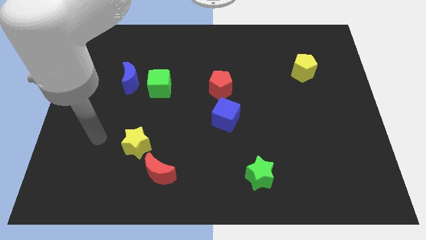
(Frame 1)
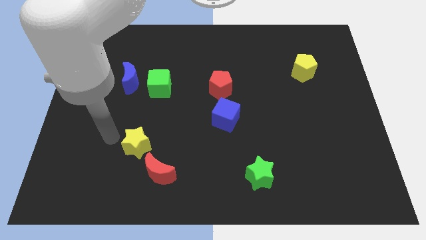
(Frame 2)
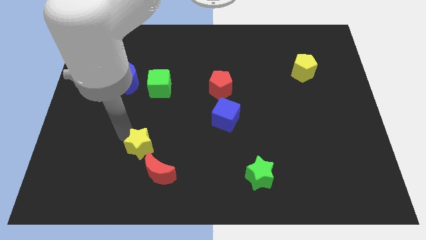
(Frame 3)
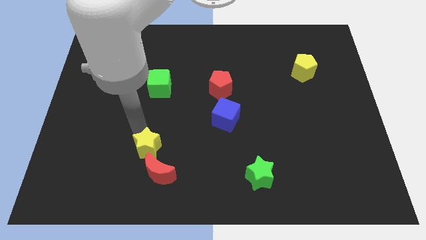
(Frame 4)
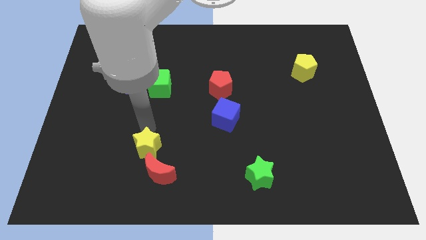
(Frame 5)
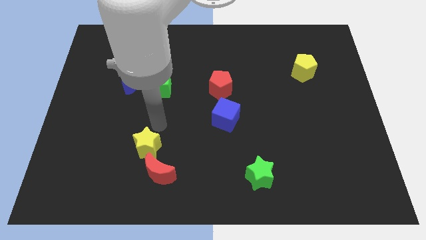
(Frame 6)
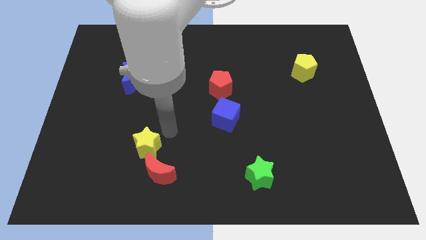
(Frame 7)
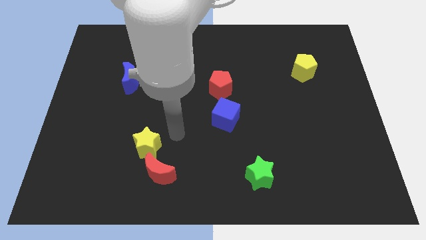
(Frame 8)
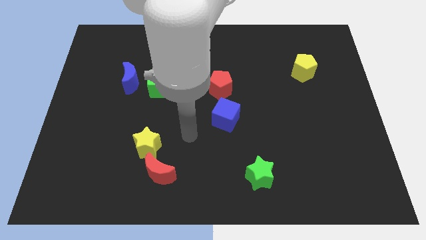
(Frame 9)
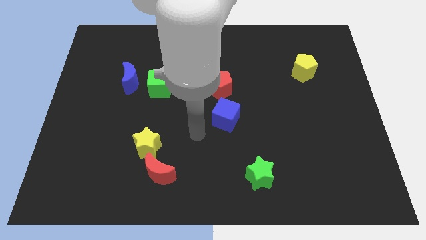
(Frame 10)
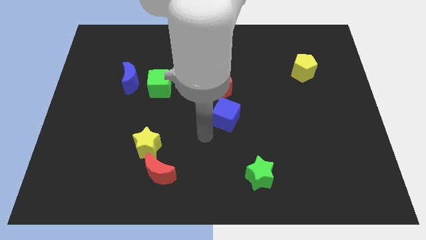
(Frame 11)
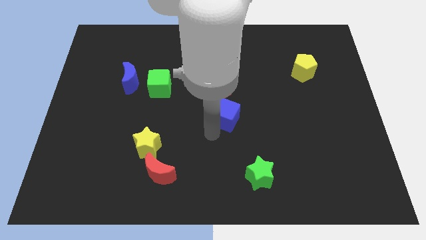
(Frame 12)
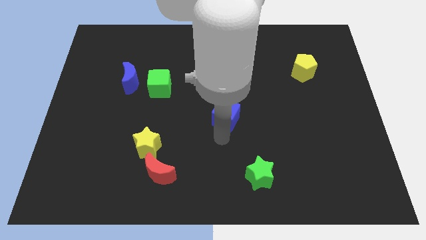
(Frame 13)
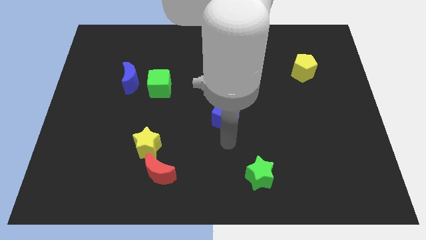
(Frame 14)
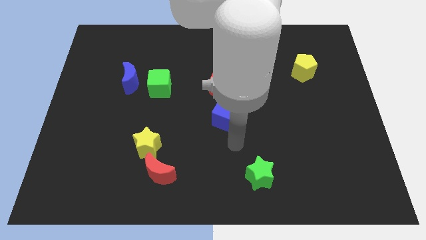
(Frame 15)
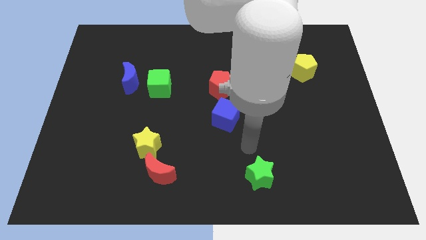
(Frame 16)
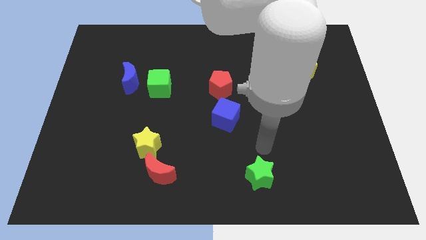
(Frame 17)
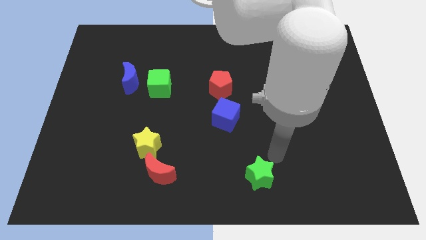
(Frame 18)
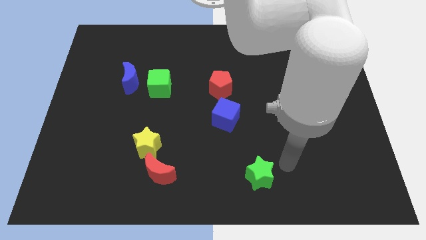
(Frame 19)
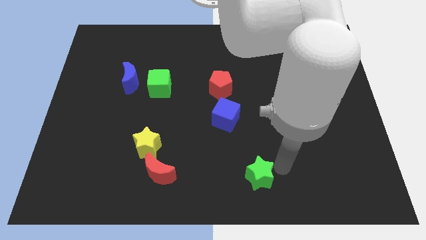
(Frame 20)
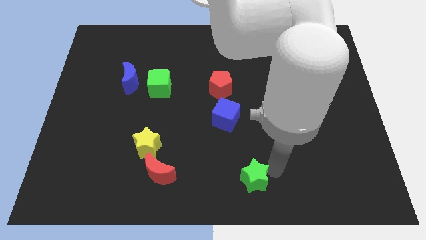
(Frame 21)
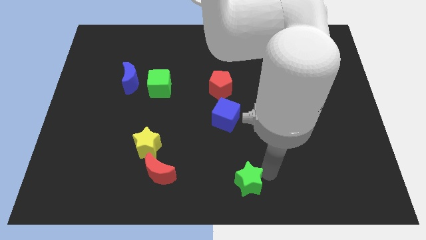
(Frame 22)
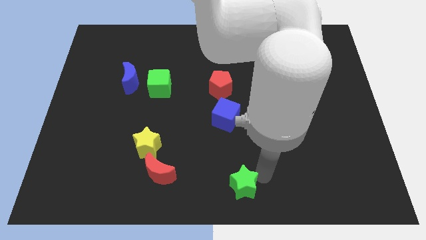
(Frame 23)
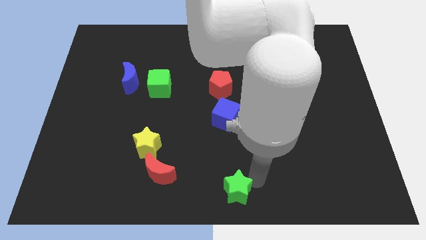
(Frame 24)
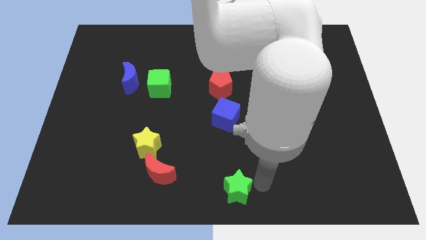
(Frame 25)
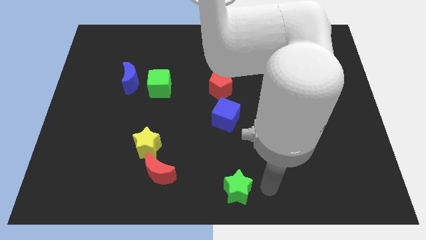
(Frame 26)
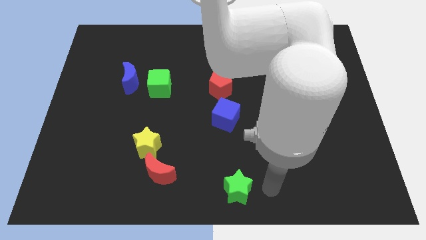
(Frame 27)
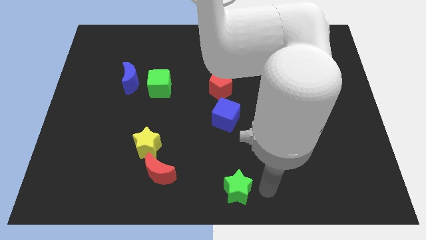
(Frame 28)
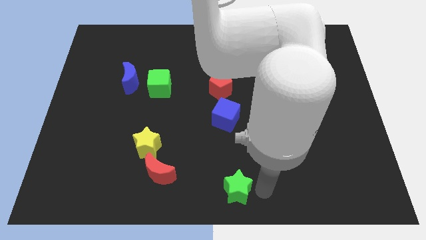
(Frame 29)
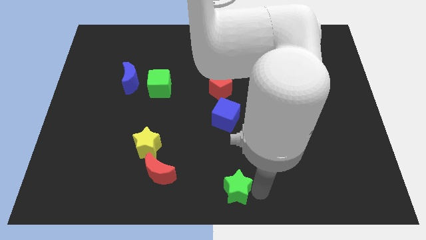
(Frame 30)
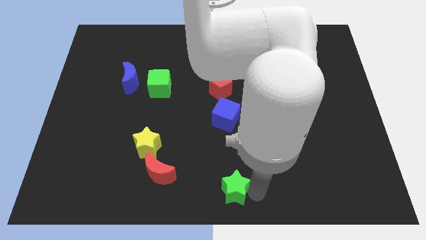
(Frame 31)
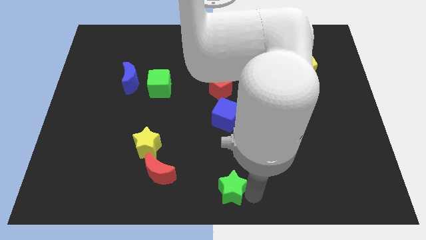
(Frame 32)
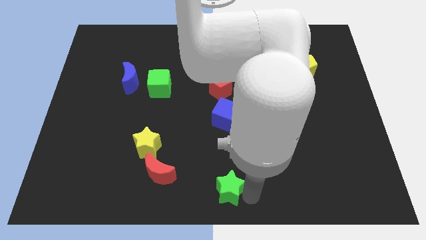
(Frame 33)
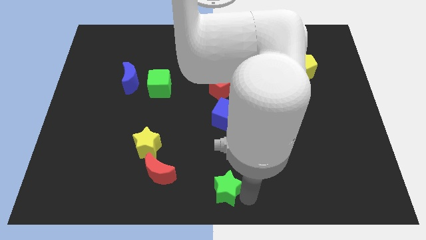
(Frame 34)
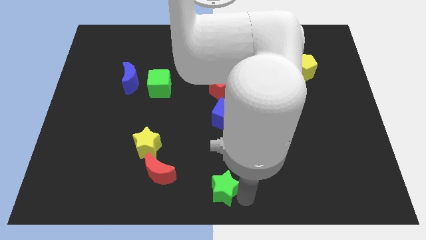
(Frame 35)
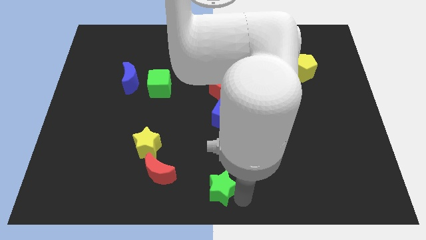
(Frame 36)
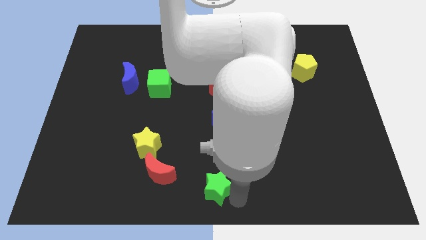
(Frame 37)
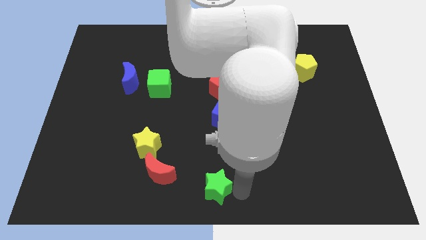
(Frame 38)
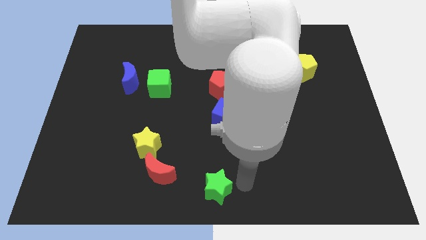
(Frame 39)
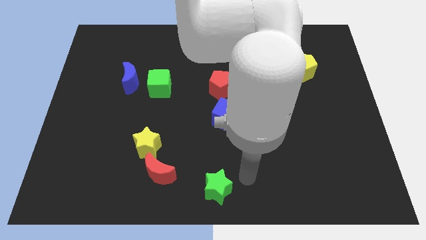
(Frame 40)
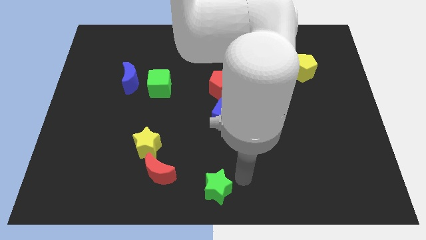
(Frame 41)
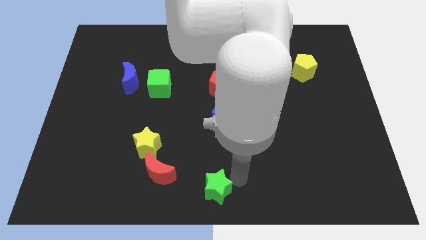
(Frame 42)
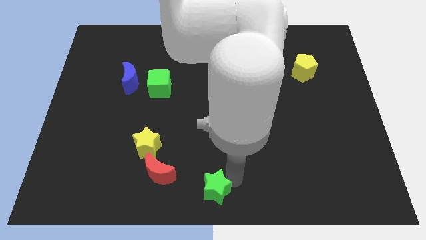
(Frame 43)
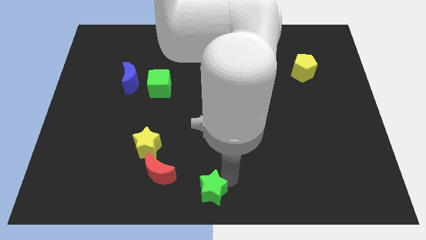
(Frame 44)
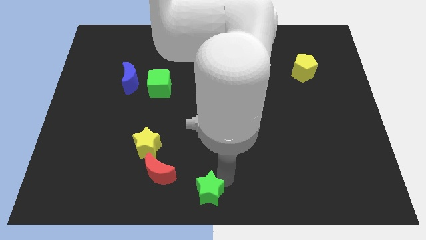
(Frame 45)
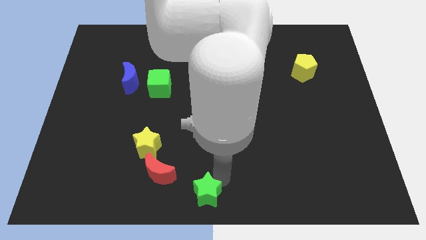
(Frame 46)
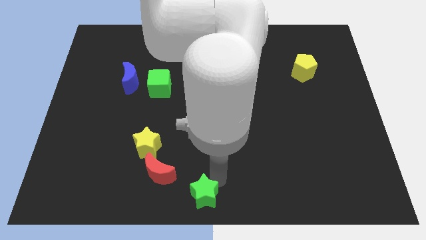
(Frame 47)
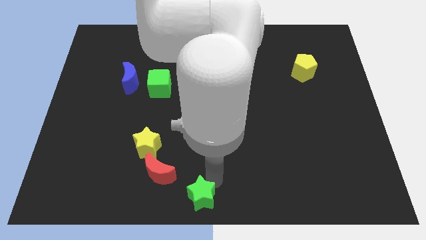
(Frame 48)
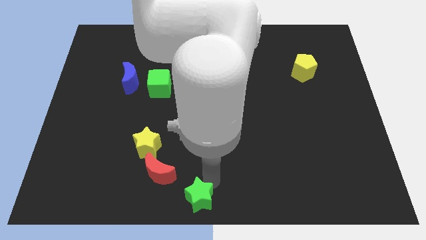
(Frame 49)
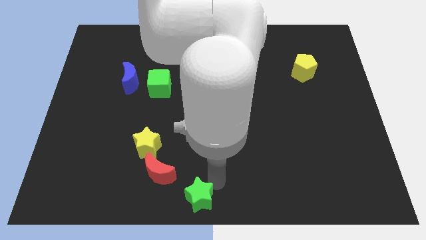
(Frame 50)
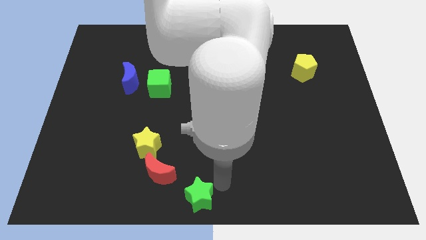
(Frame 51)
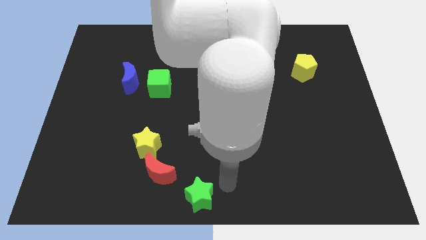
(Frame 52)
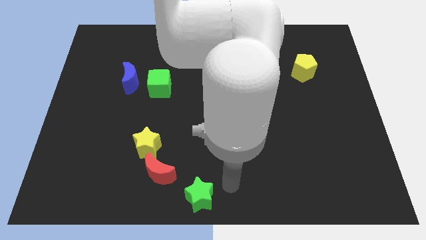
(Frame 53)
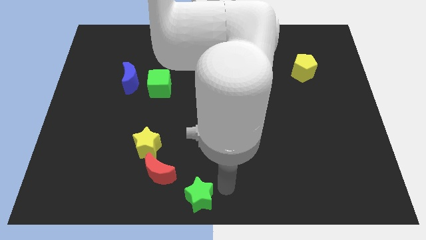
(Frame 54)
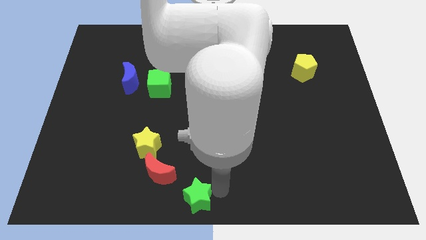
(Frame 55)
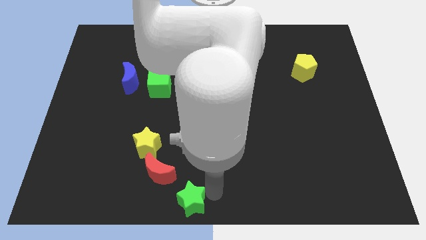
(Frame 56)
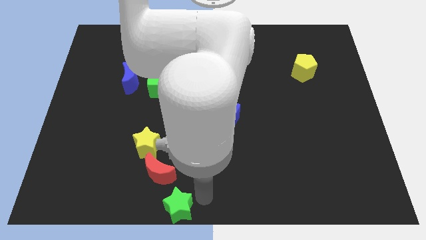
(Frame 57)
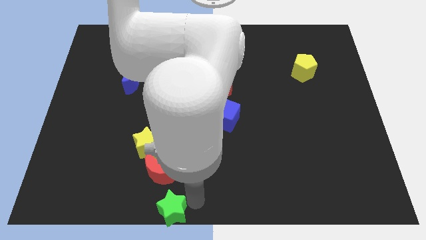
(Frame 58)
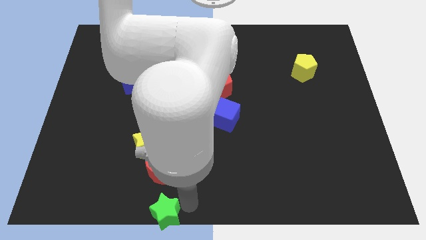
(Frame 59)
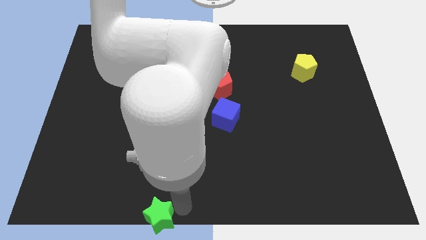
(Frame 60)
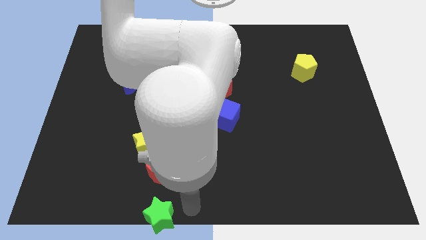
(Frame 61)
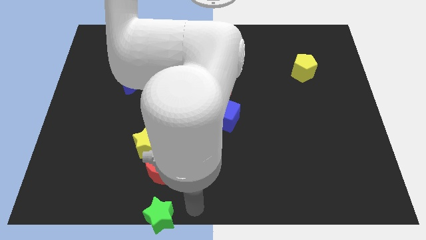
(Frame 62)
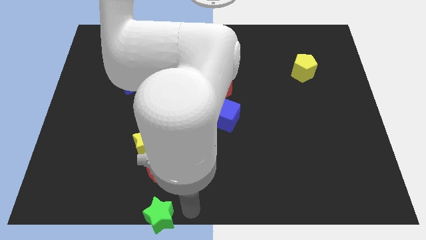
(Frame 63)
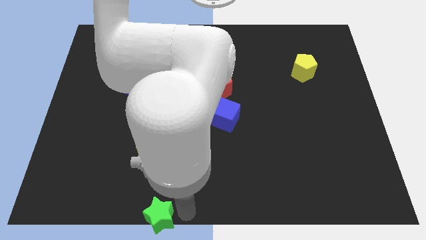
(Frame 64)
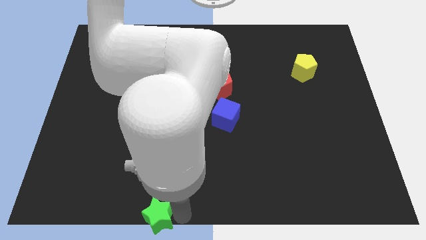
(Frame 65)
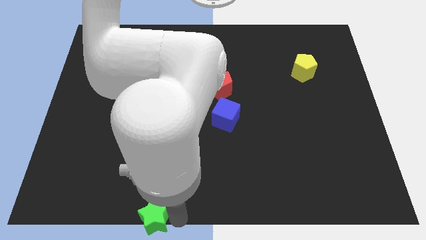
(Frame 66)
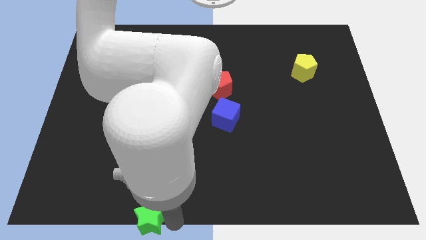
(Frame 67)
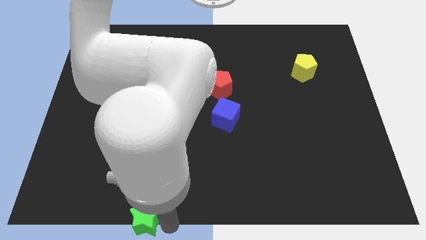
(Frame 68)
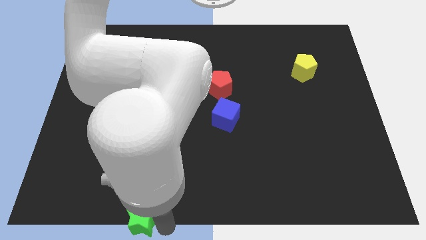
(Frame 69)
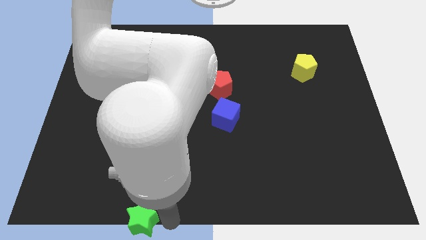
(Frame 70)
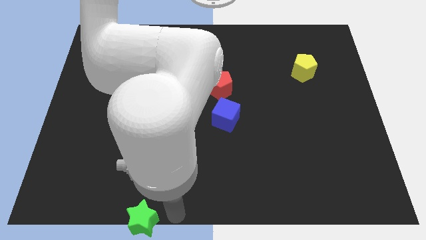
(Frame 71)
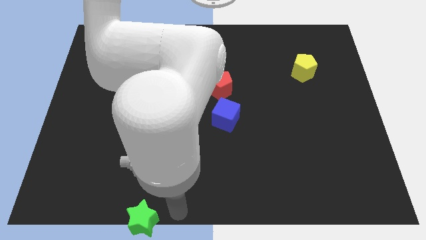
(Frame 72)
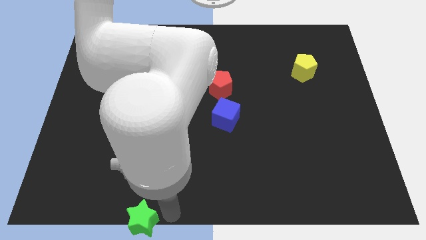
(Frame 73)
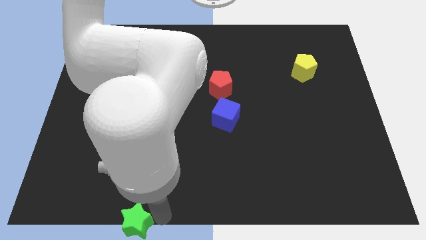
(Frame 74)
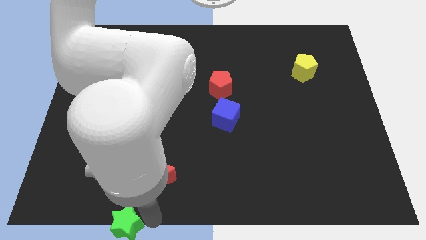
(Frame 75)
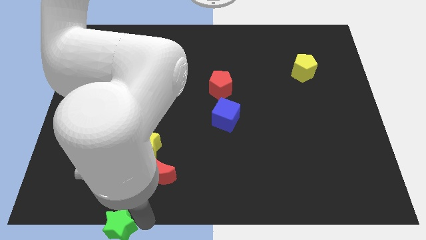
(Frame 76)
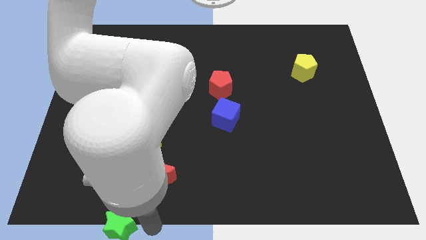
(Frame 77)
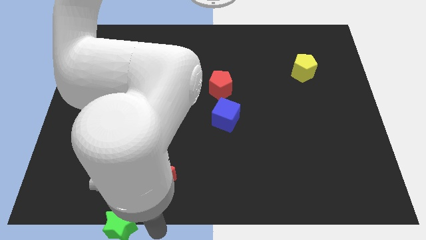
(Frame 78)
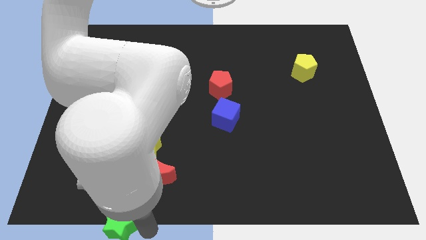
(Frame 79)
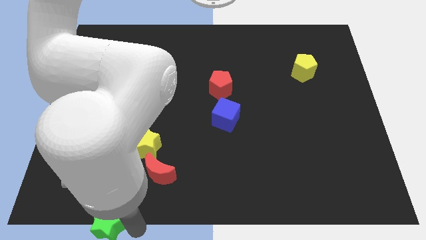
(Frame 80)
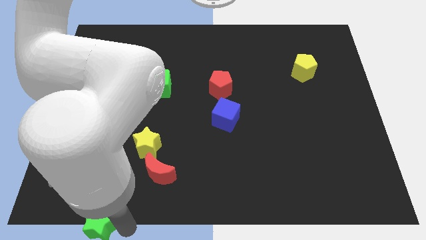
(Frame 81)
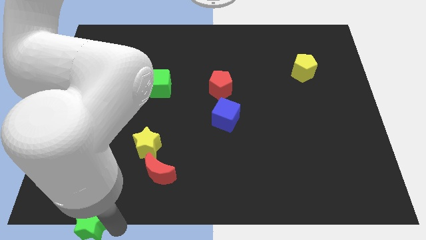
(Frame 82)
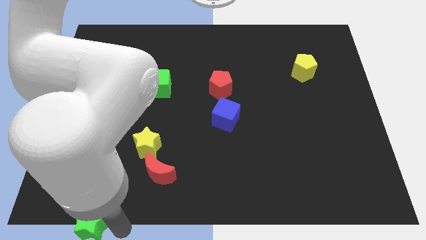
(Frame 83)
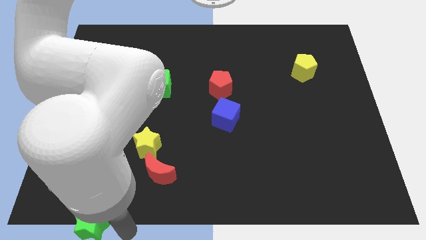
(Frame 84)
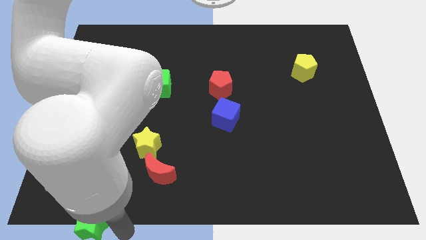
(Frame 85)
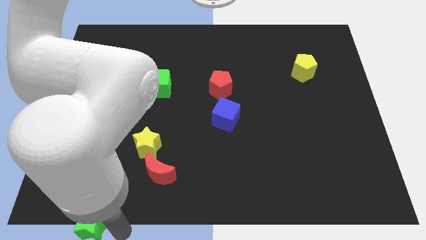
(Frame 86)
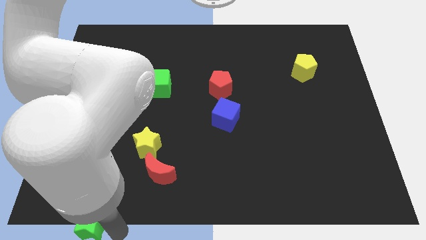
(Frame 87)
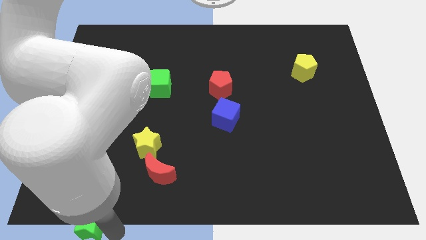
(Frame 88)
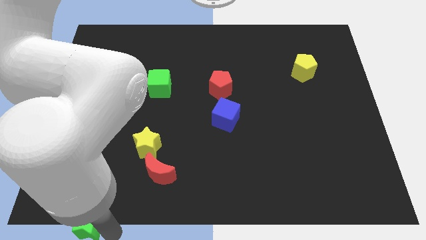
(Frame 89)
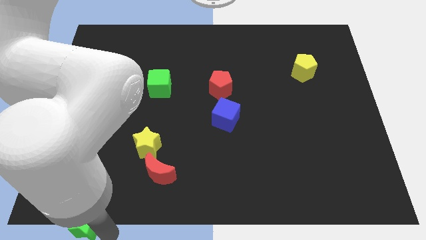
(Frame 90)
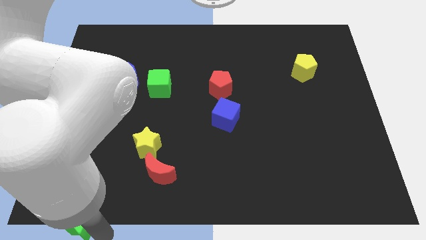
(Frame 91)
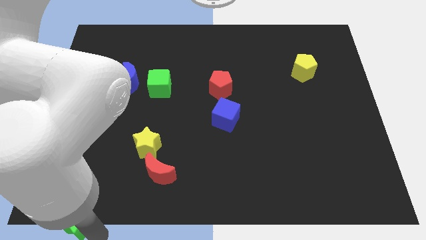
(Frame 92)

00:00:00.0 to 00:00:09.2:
push the green star to the lower left corner
